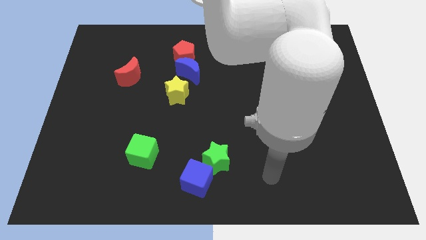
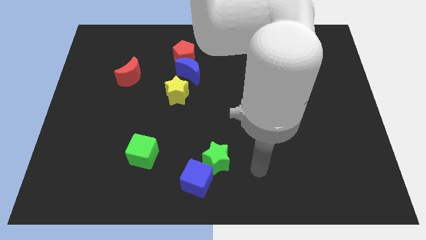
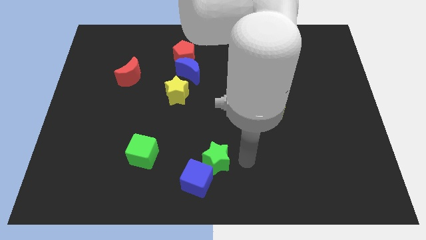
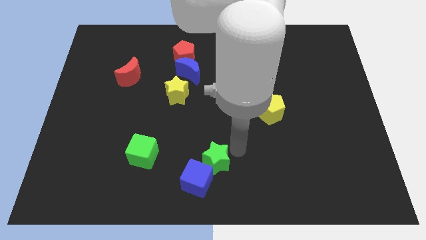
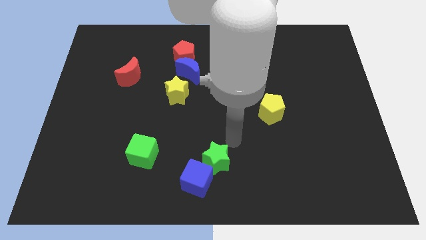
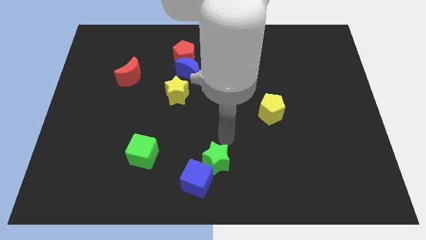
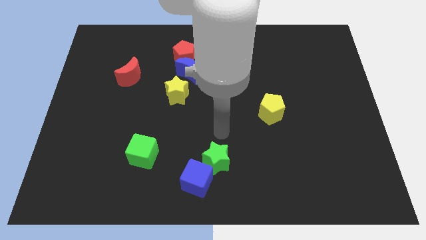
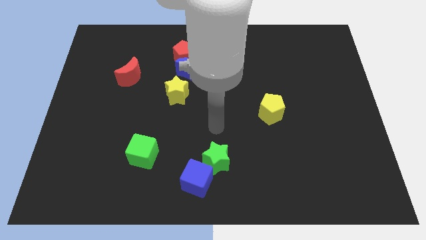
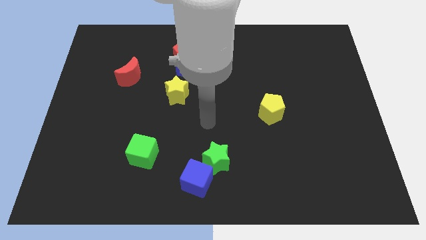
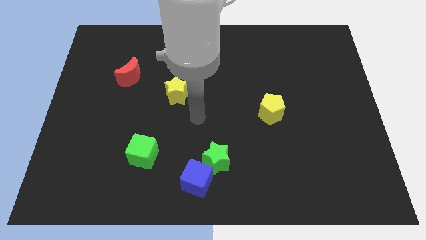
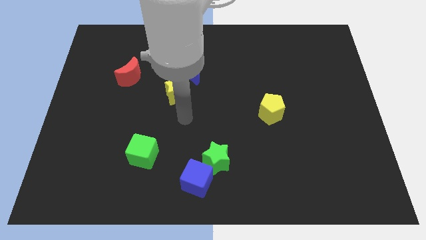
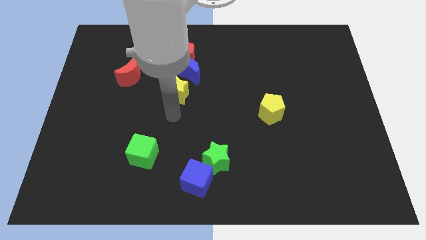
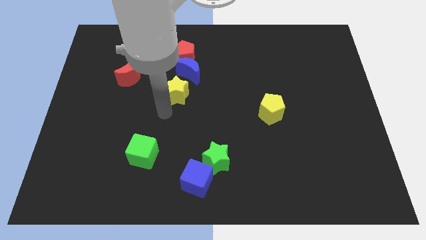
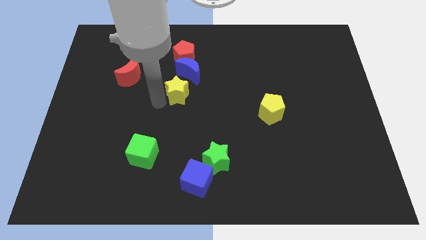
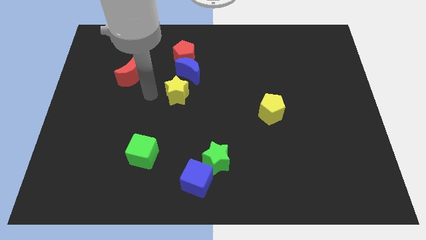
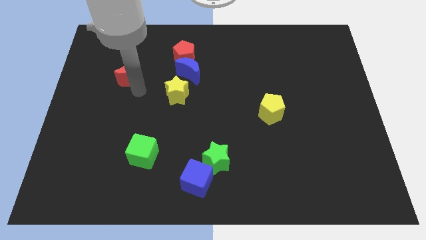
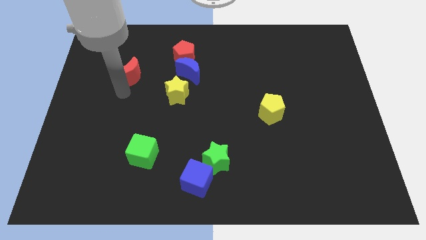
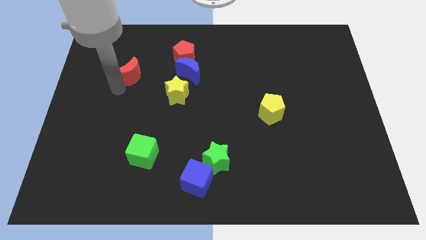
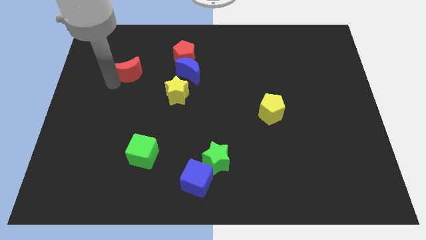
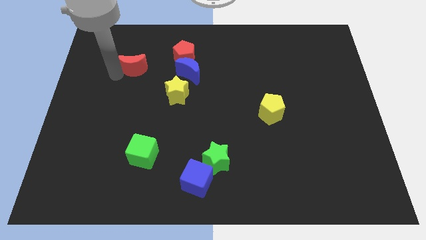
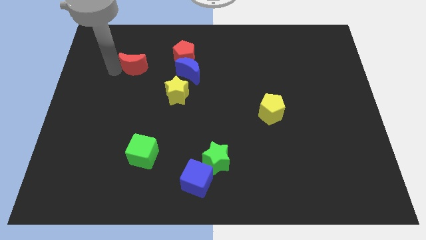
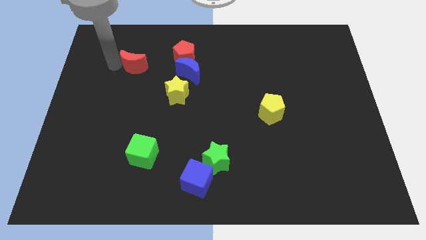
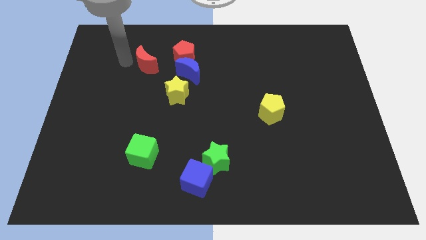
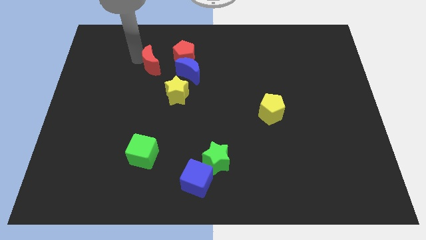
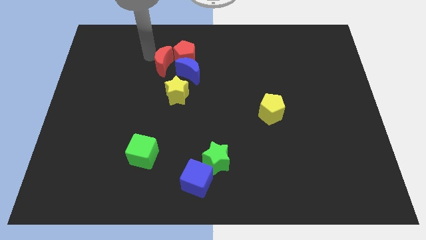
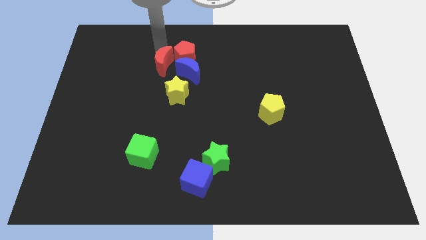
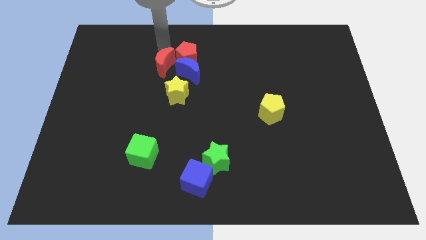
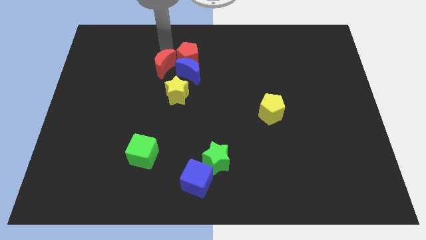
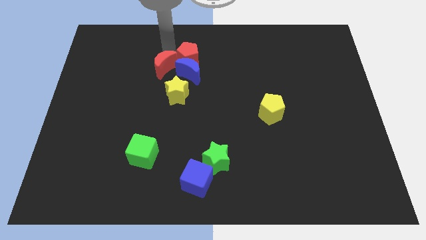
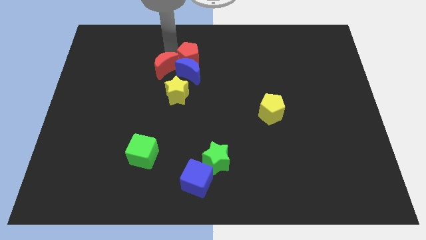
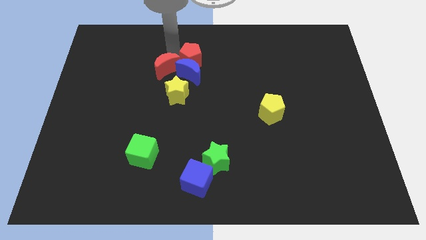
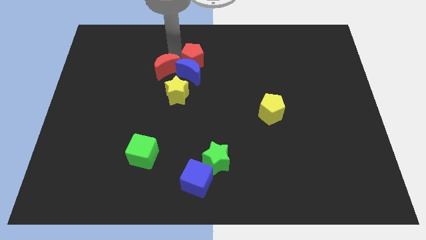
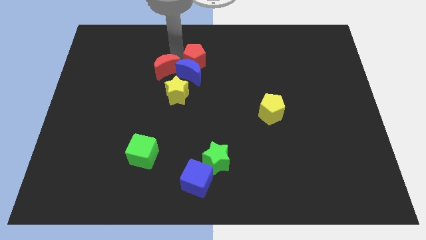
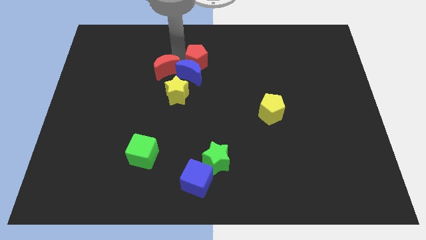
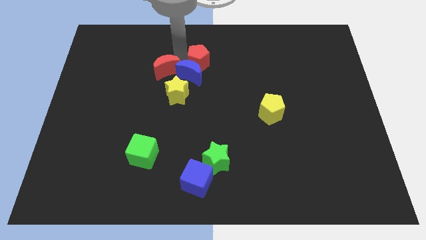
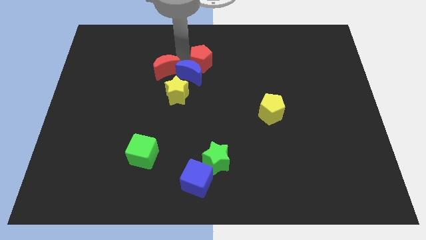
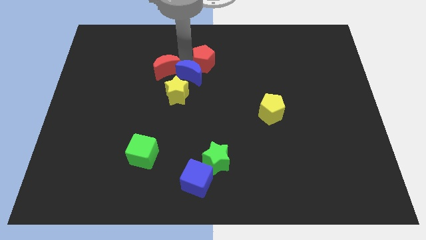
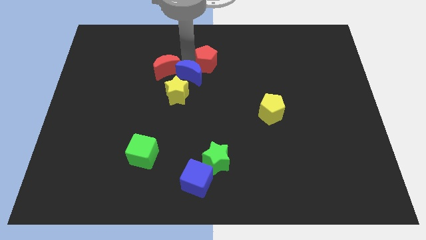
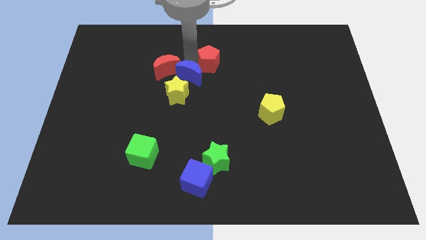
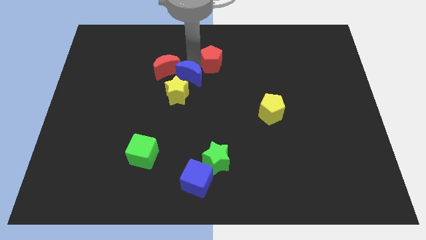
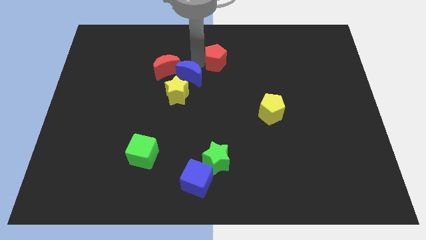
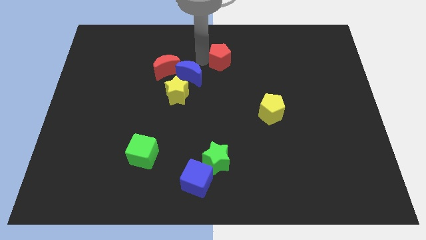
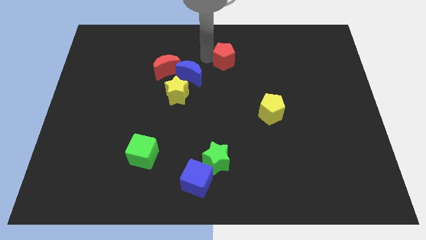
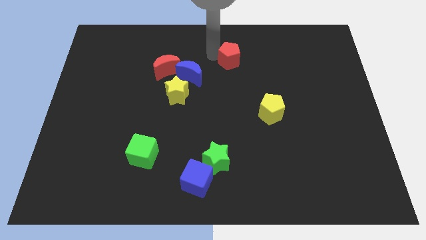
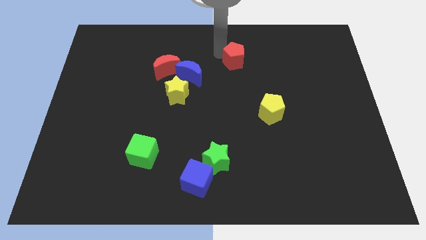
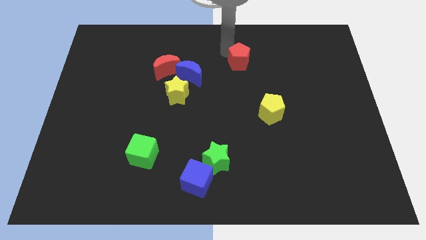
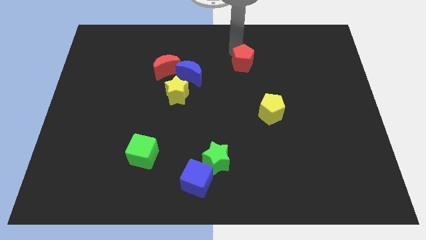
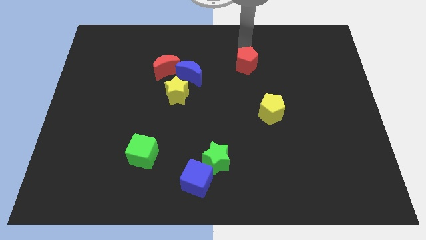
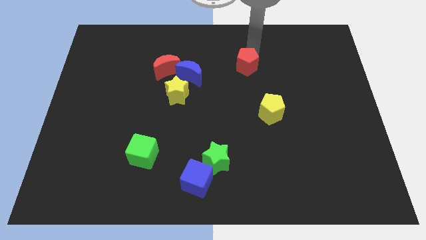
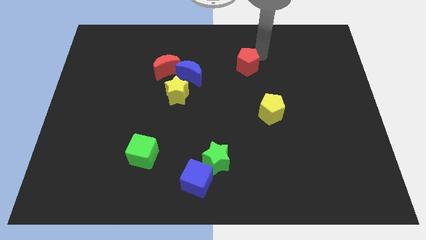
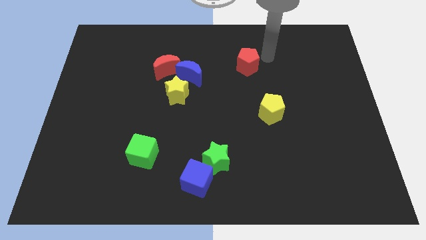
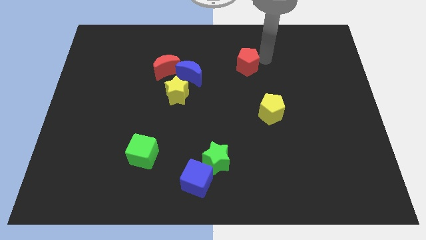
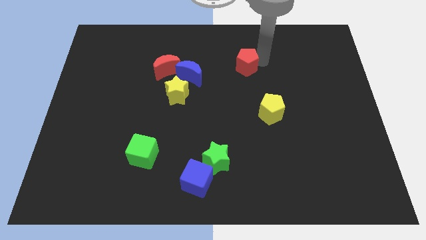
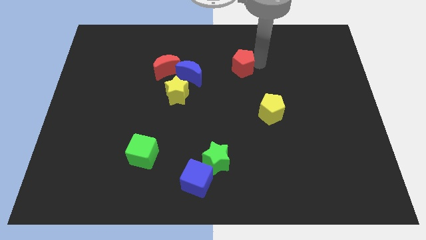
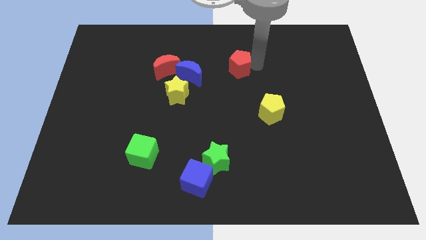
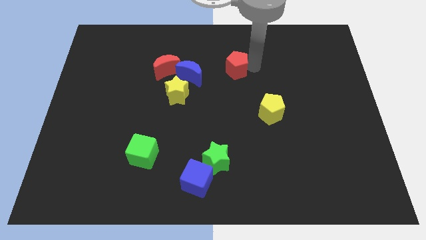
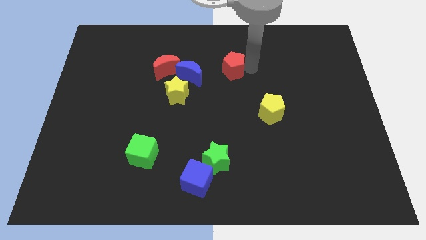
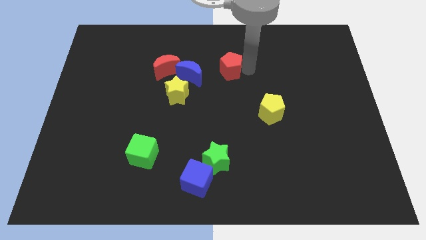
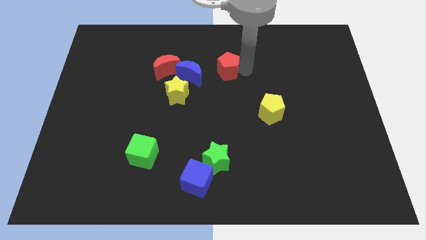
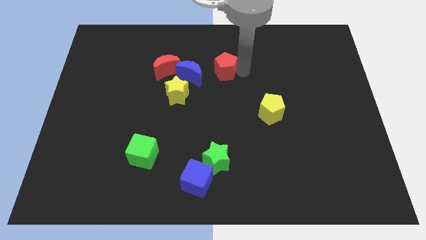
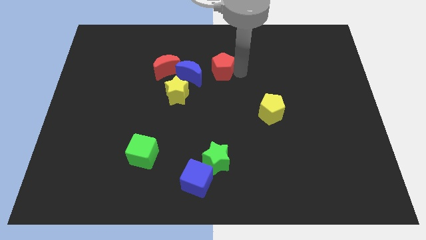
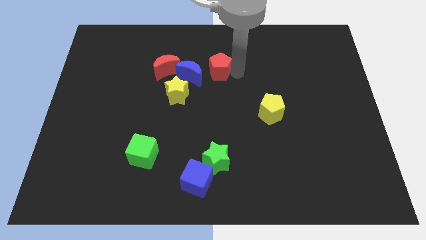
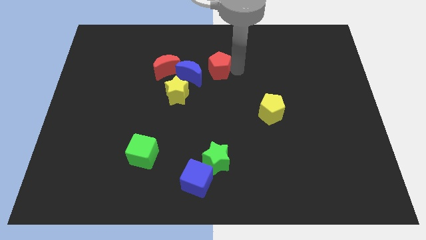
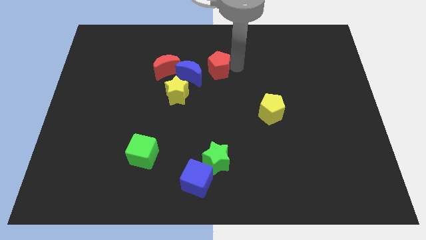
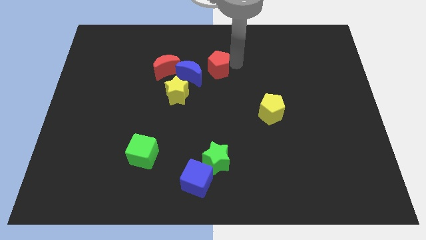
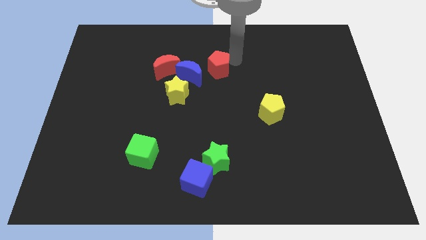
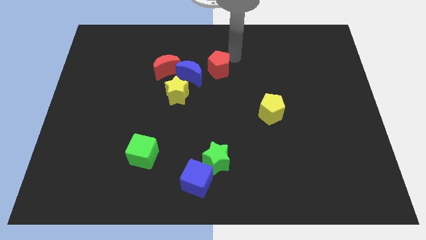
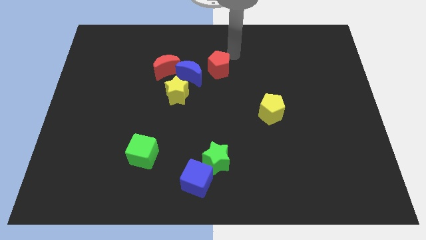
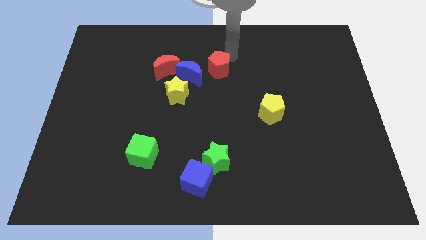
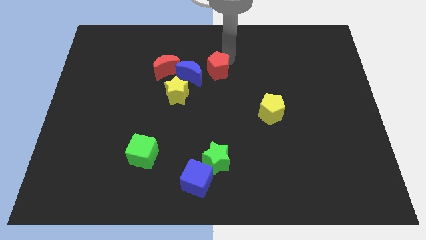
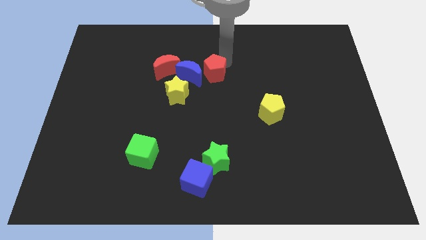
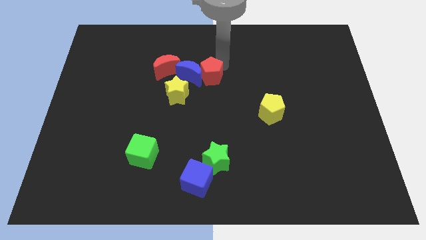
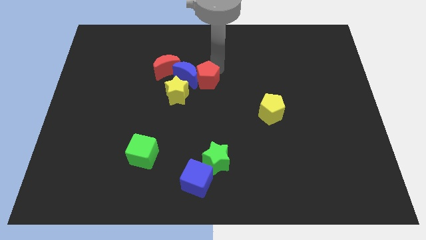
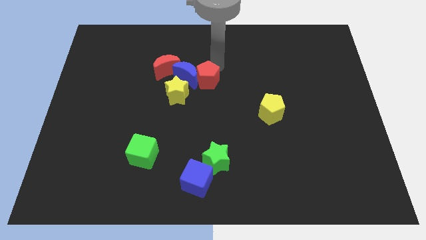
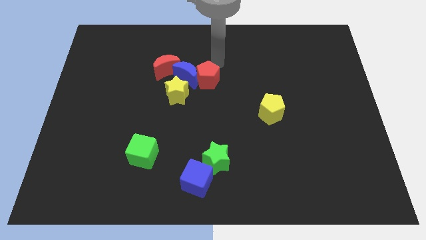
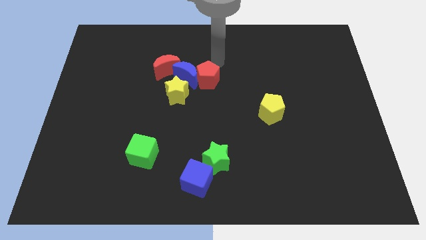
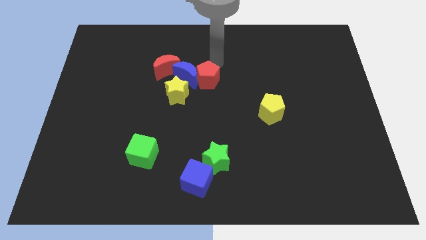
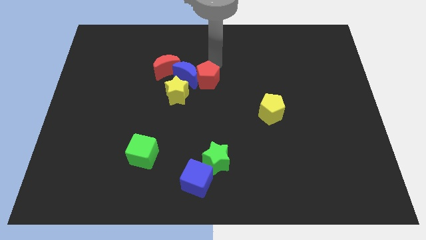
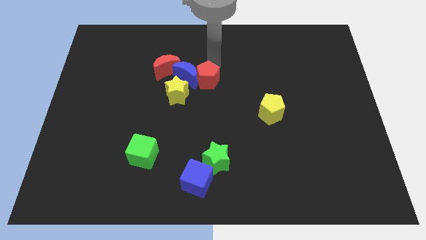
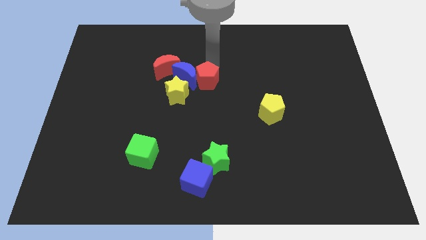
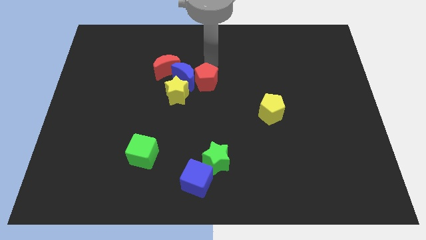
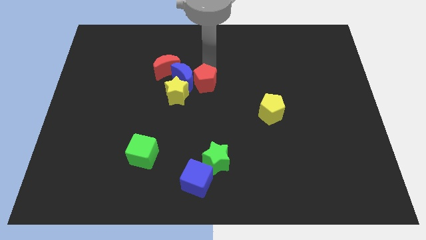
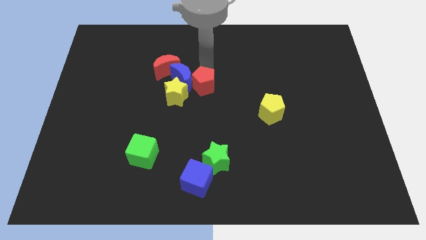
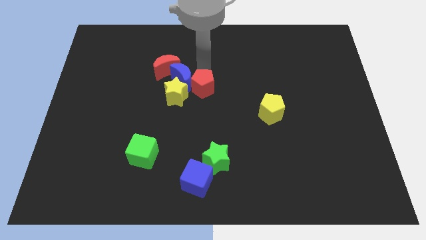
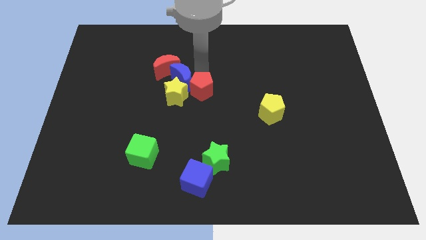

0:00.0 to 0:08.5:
put the red pentagon to the bottom of the blue moon
